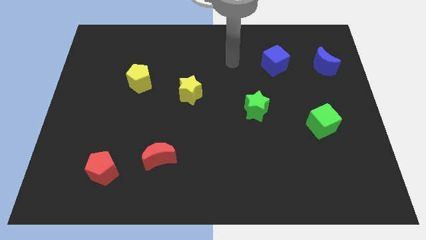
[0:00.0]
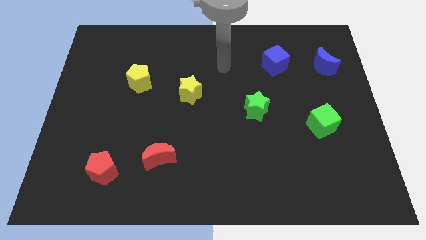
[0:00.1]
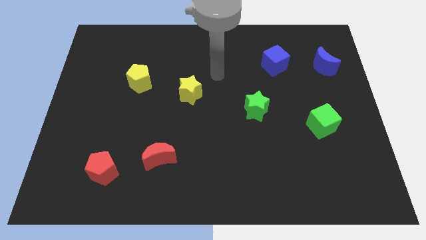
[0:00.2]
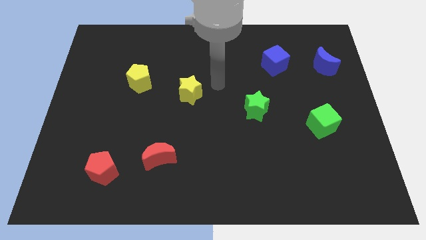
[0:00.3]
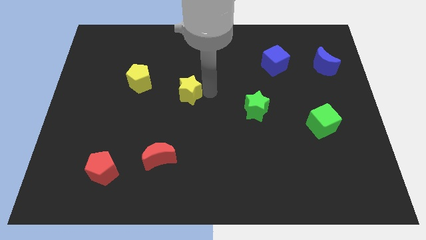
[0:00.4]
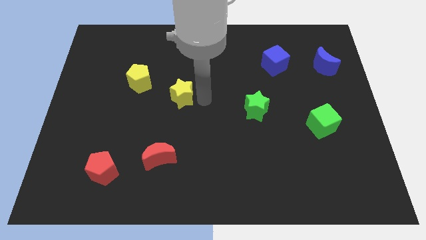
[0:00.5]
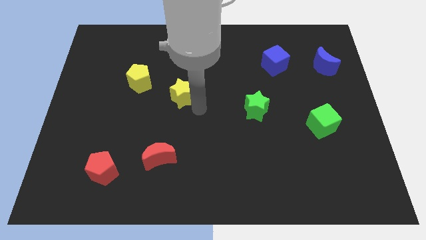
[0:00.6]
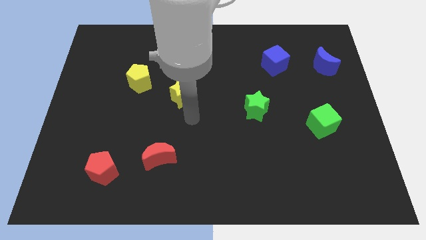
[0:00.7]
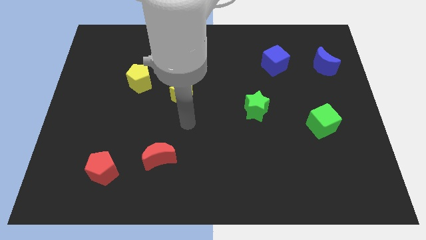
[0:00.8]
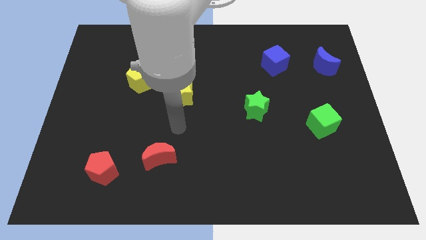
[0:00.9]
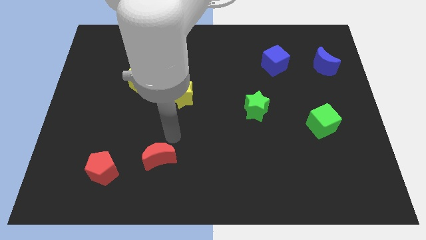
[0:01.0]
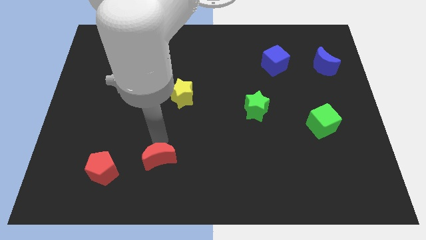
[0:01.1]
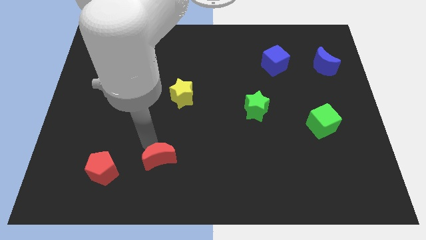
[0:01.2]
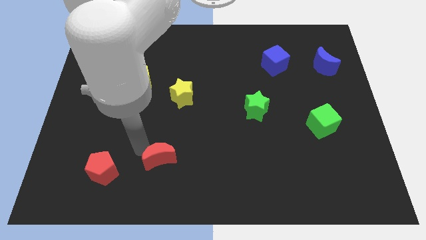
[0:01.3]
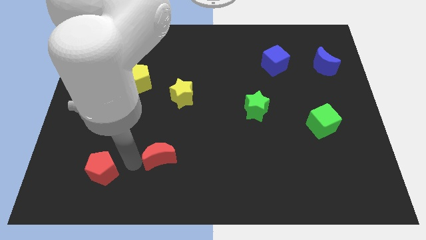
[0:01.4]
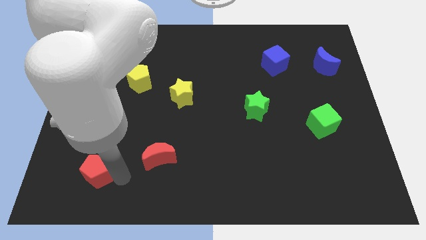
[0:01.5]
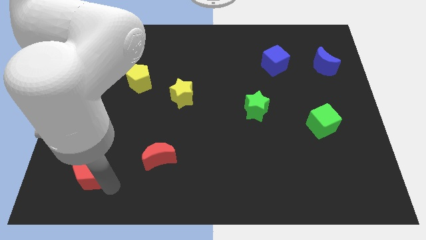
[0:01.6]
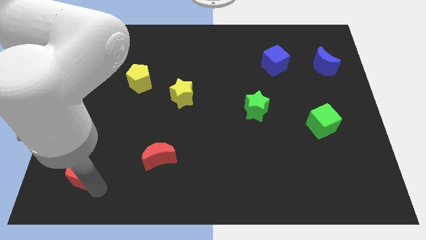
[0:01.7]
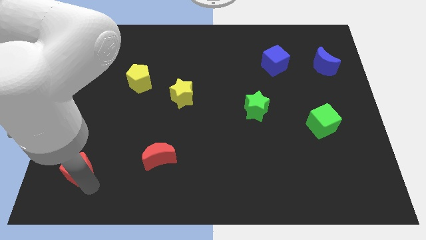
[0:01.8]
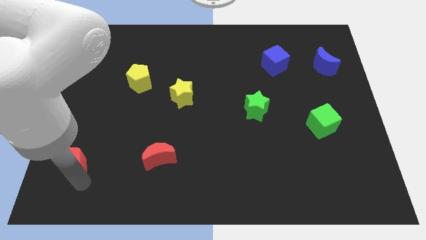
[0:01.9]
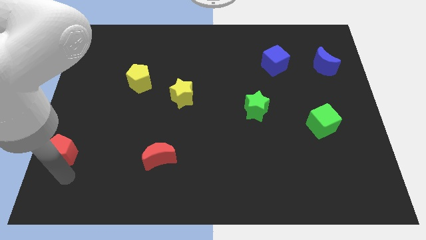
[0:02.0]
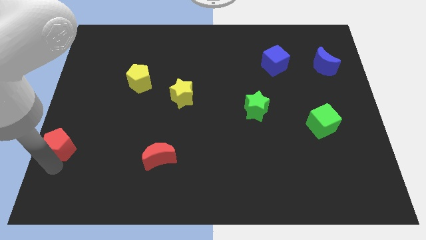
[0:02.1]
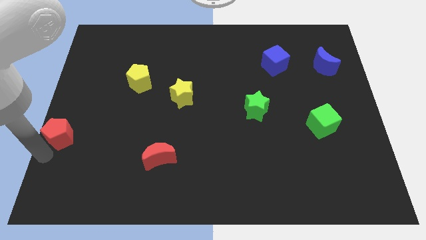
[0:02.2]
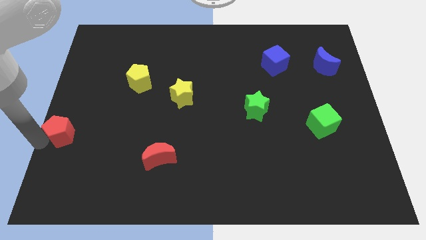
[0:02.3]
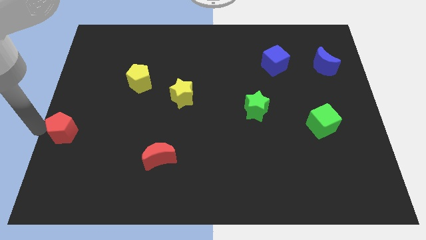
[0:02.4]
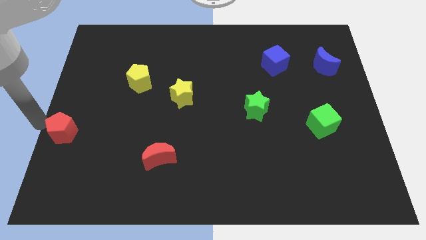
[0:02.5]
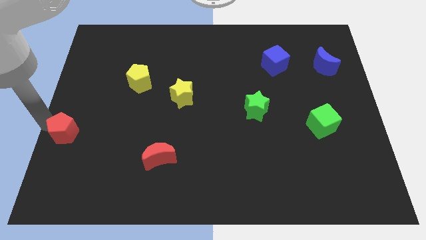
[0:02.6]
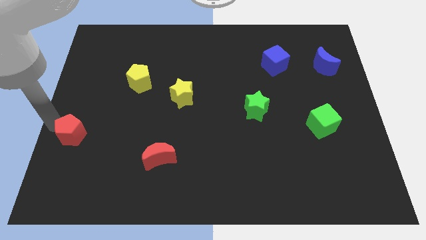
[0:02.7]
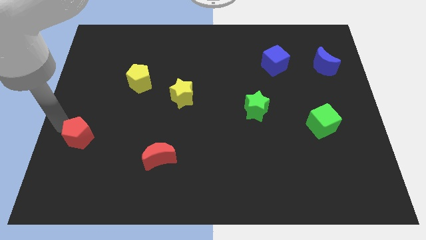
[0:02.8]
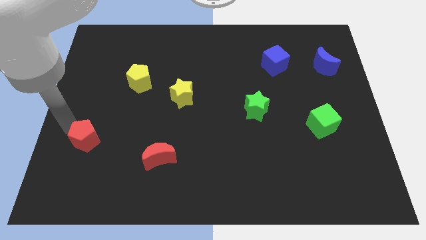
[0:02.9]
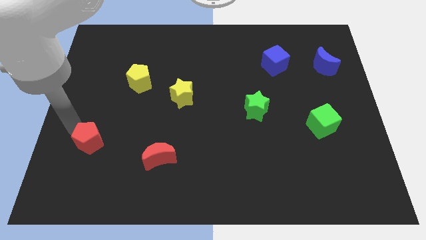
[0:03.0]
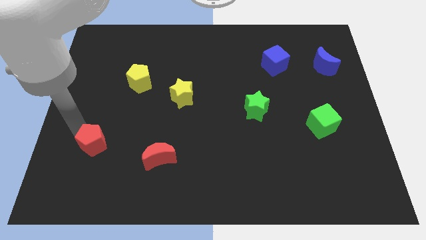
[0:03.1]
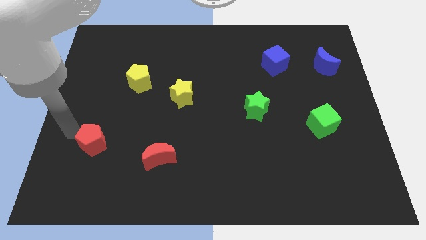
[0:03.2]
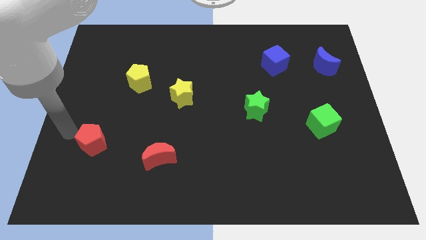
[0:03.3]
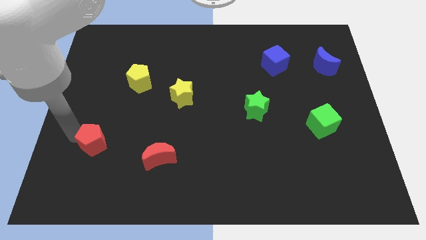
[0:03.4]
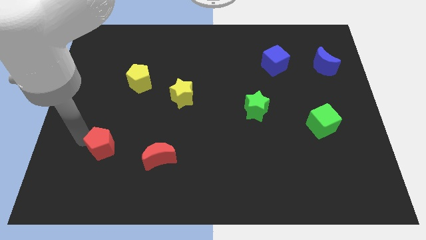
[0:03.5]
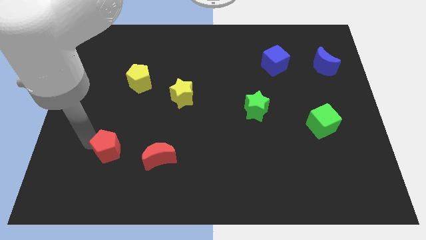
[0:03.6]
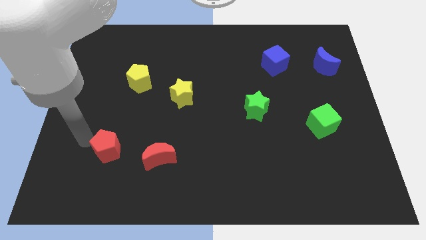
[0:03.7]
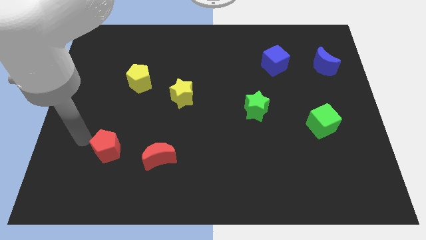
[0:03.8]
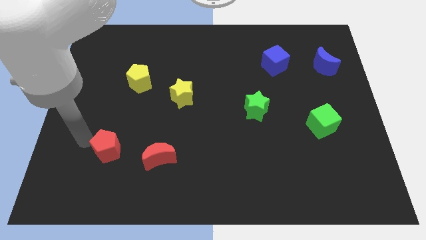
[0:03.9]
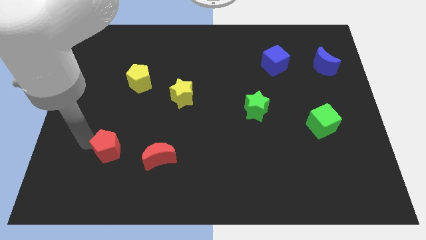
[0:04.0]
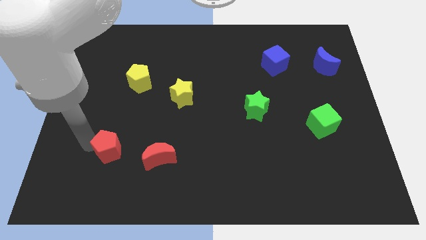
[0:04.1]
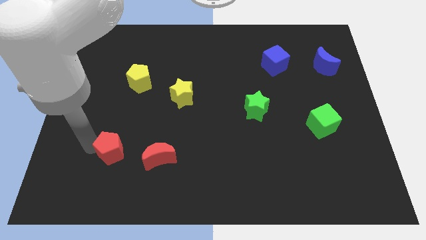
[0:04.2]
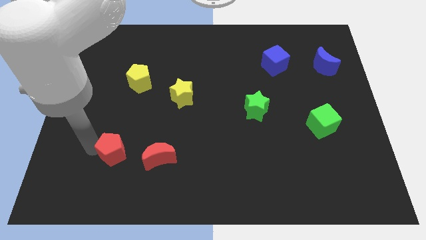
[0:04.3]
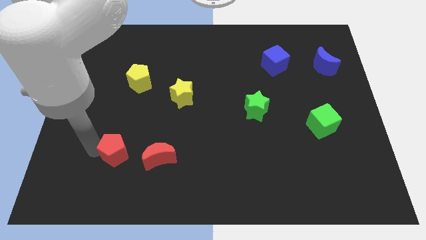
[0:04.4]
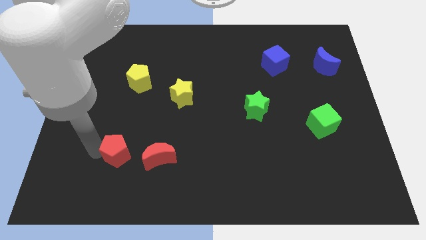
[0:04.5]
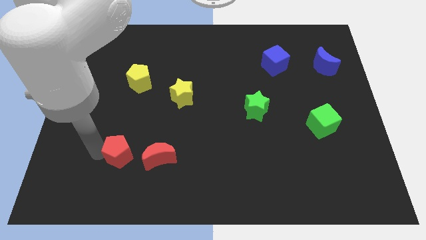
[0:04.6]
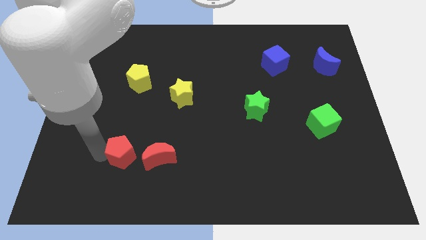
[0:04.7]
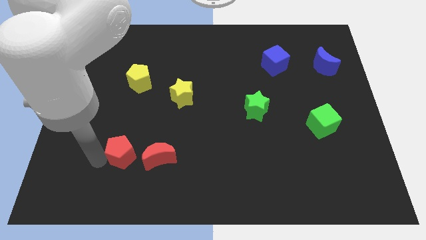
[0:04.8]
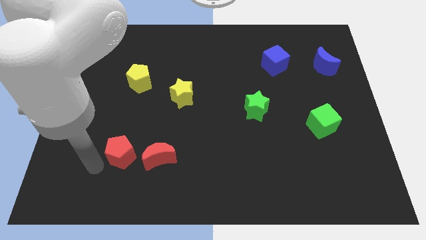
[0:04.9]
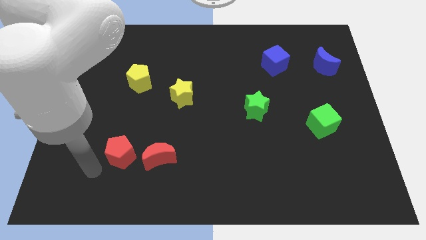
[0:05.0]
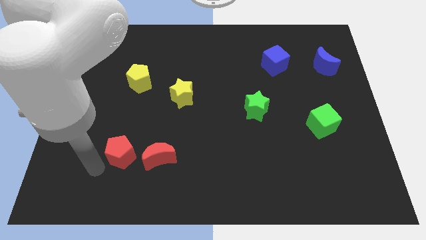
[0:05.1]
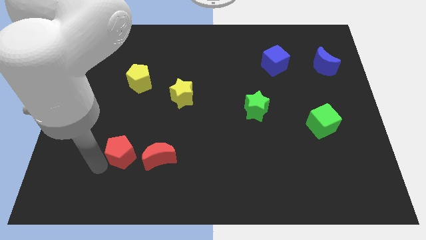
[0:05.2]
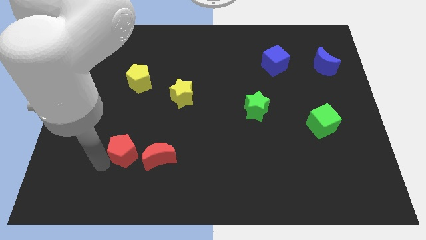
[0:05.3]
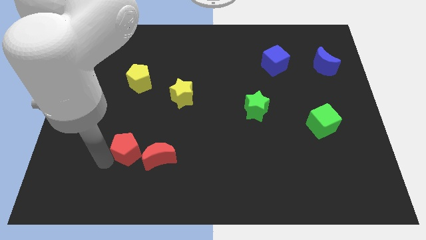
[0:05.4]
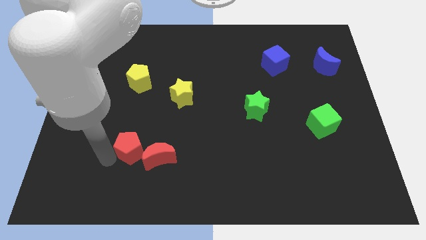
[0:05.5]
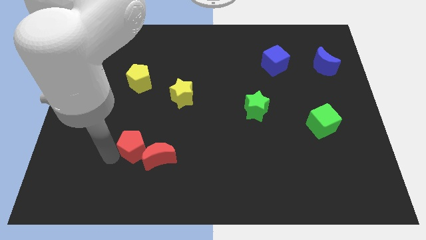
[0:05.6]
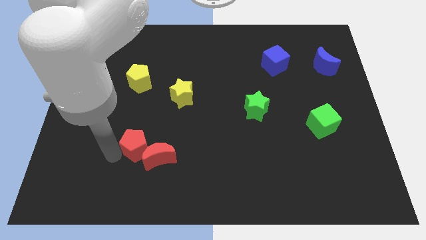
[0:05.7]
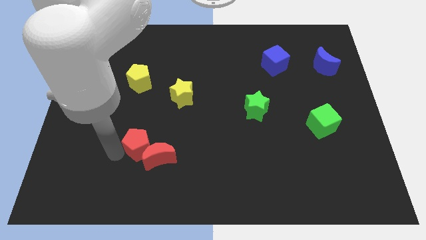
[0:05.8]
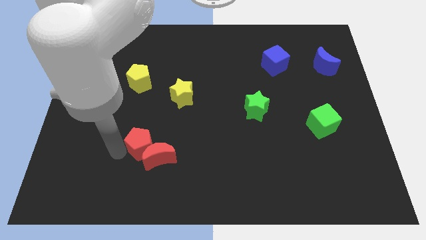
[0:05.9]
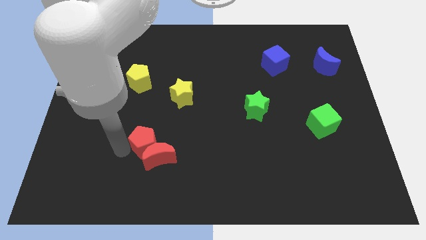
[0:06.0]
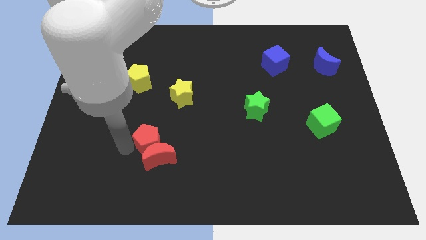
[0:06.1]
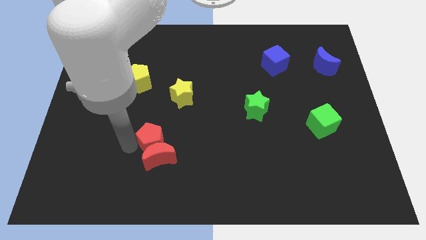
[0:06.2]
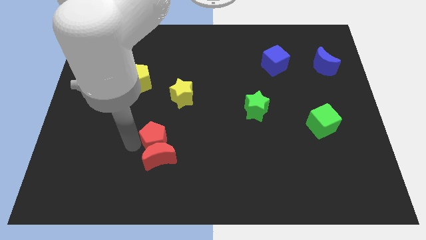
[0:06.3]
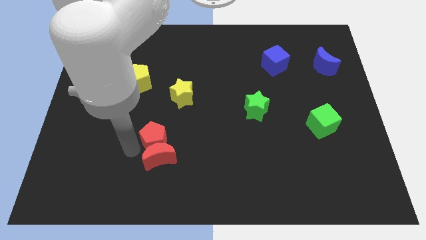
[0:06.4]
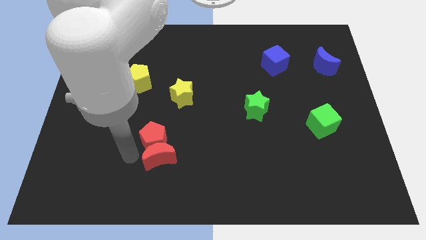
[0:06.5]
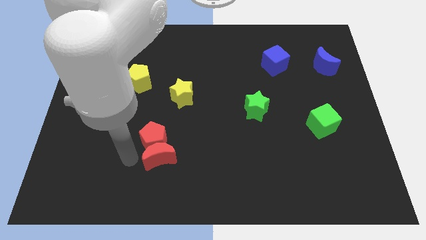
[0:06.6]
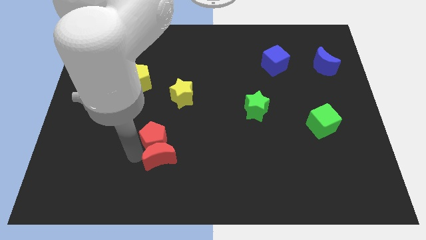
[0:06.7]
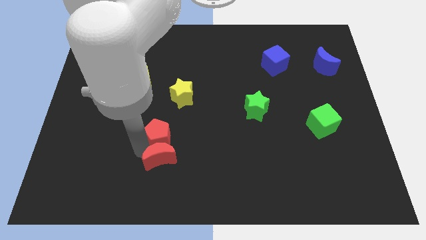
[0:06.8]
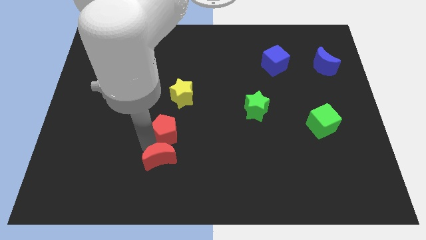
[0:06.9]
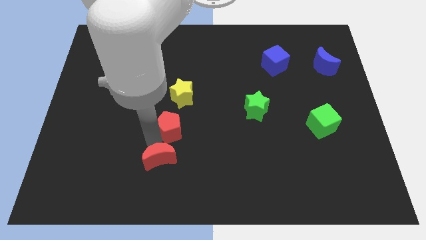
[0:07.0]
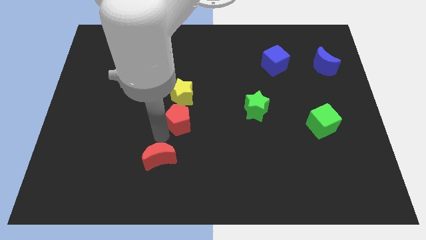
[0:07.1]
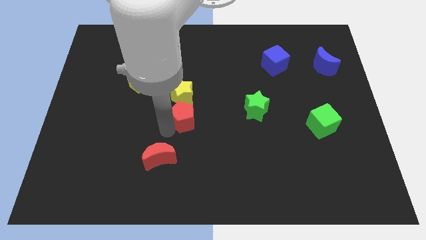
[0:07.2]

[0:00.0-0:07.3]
push the red pentagon upwards and right diagonally

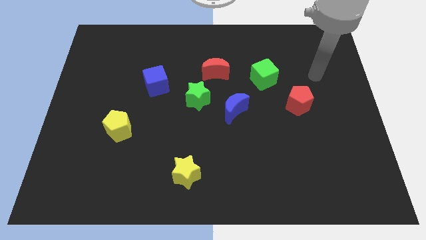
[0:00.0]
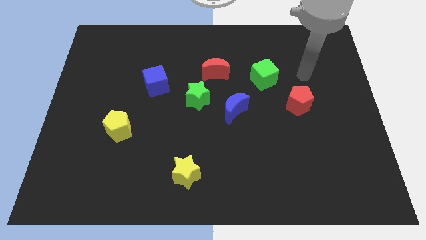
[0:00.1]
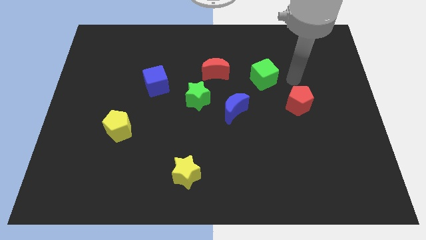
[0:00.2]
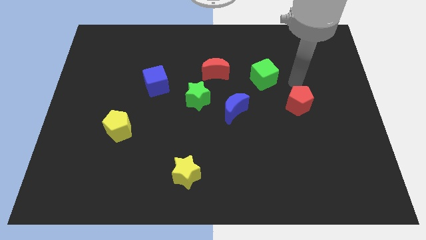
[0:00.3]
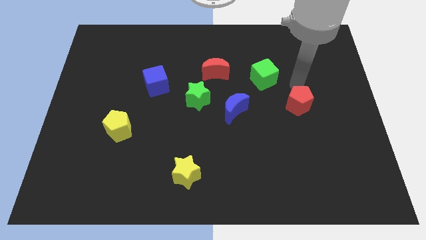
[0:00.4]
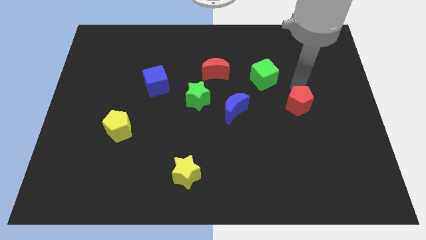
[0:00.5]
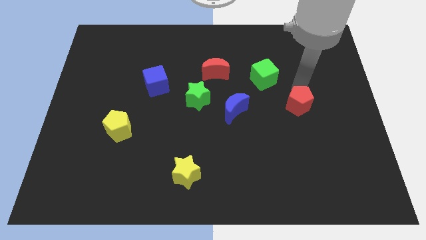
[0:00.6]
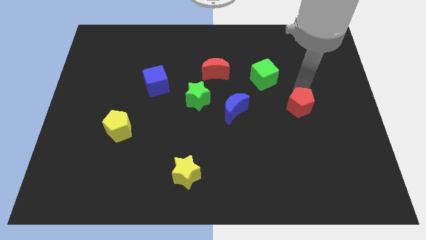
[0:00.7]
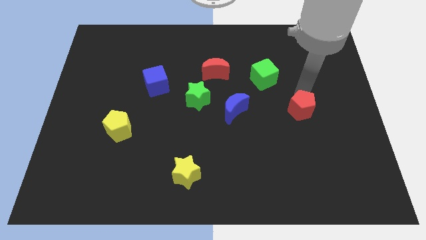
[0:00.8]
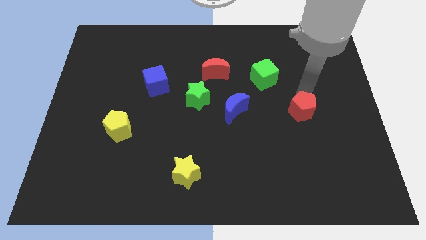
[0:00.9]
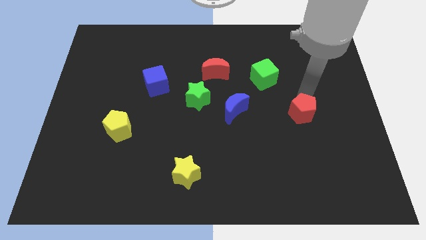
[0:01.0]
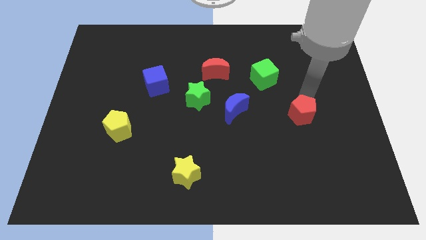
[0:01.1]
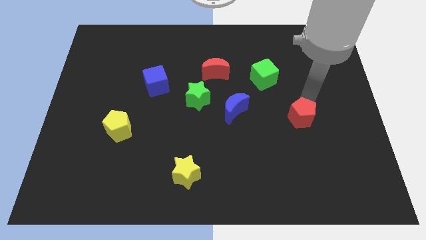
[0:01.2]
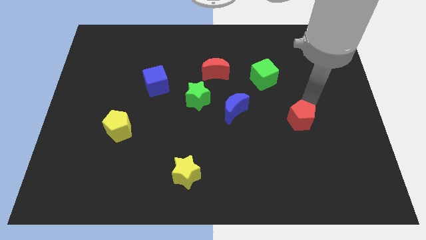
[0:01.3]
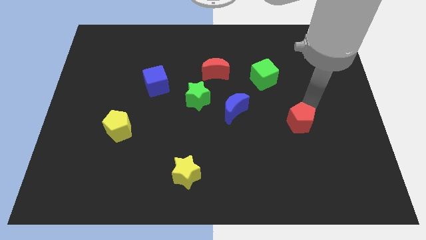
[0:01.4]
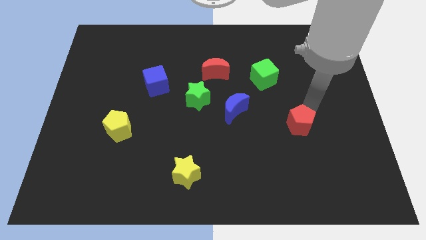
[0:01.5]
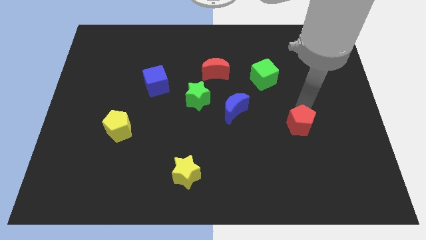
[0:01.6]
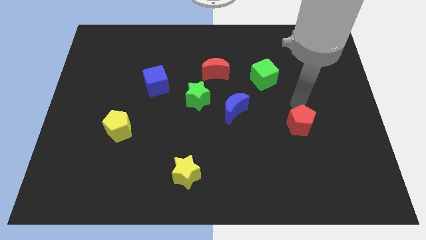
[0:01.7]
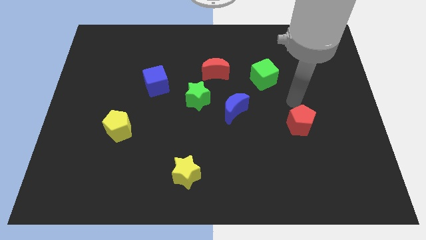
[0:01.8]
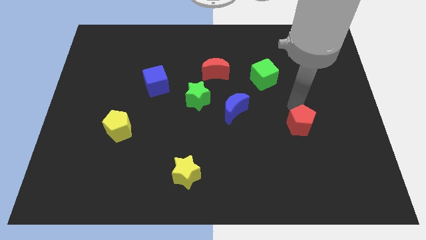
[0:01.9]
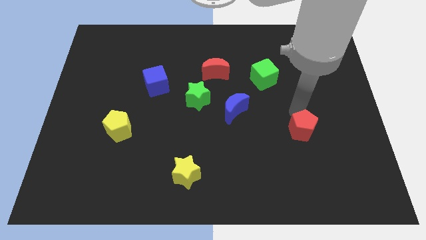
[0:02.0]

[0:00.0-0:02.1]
push the red pentagon downwards somewhat
